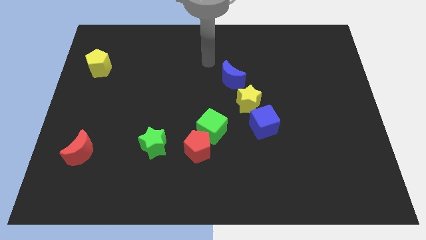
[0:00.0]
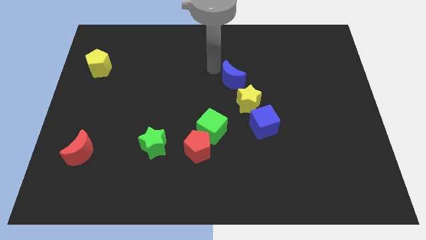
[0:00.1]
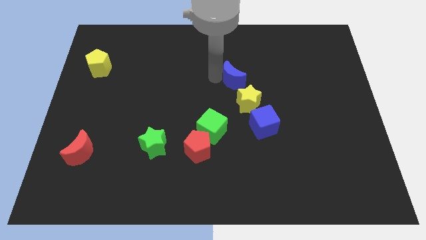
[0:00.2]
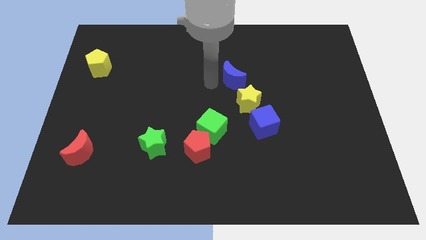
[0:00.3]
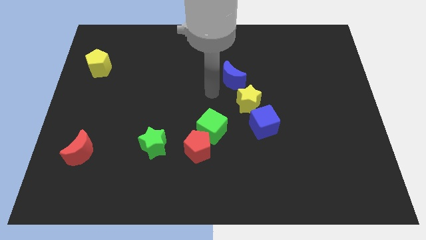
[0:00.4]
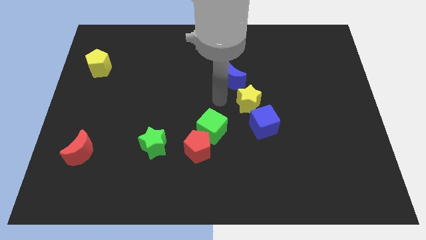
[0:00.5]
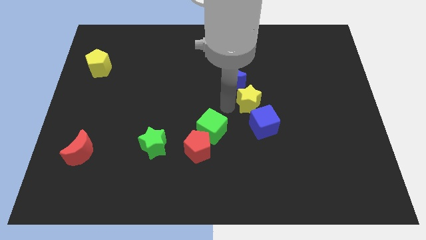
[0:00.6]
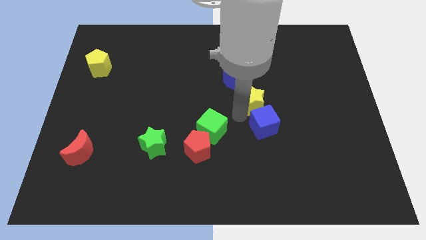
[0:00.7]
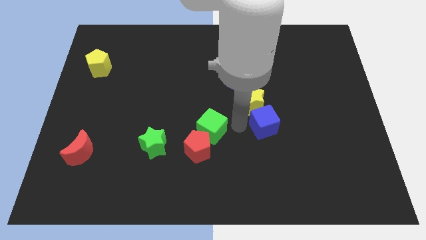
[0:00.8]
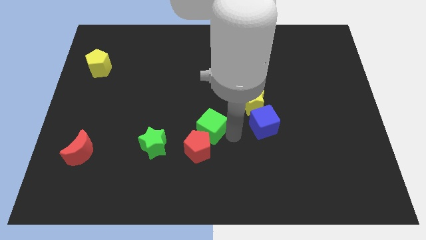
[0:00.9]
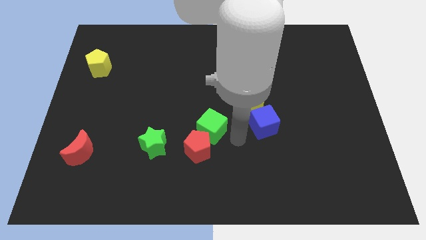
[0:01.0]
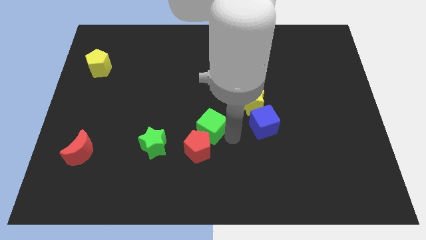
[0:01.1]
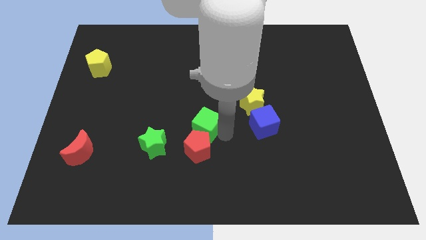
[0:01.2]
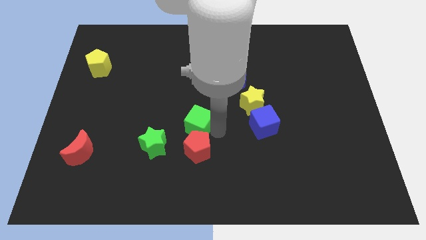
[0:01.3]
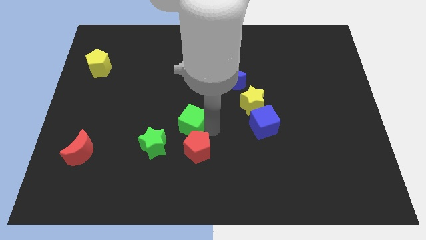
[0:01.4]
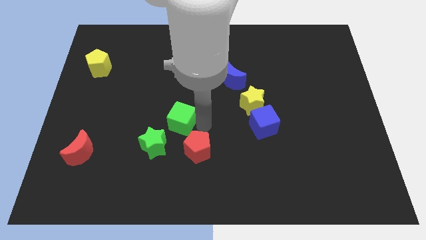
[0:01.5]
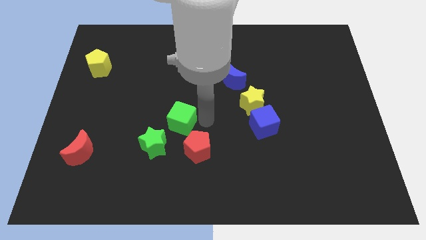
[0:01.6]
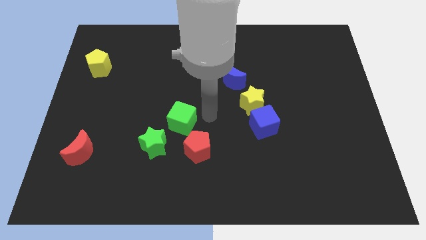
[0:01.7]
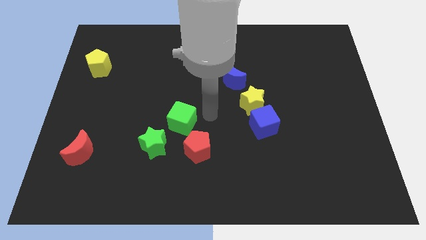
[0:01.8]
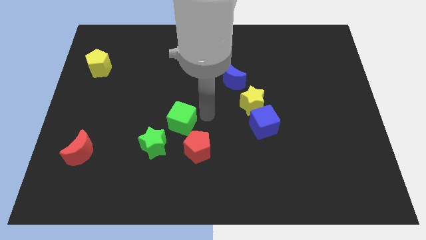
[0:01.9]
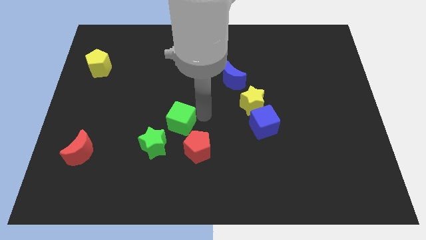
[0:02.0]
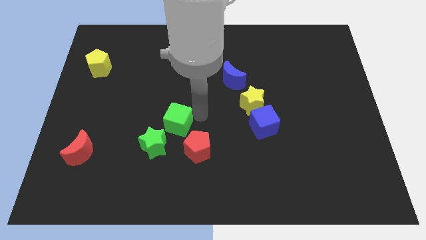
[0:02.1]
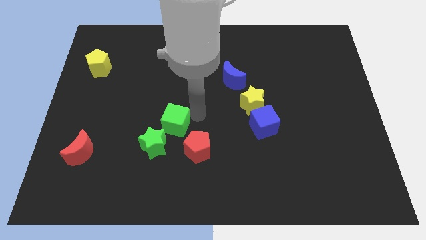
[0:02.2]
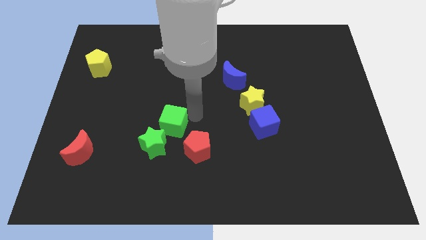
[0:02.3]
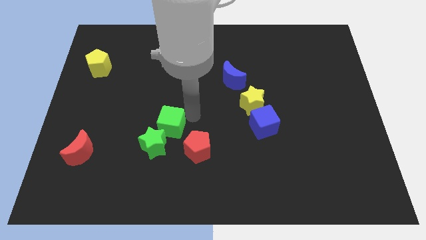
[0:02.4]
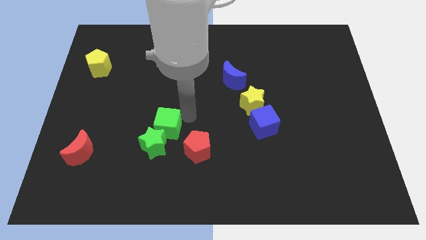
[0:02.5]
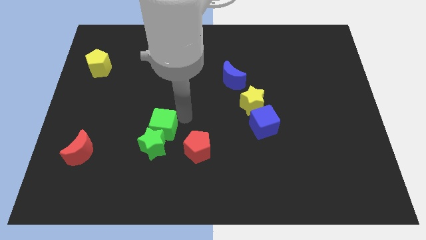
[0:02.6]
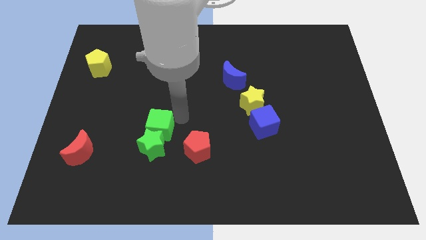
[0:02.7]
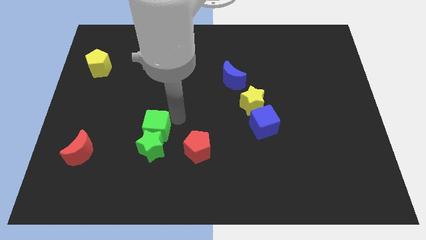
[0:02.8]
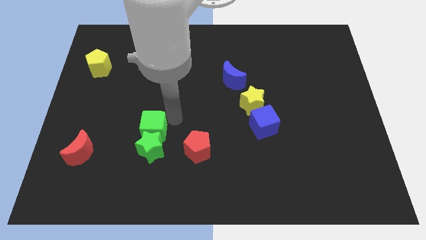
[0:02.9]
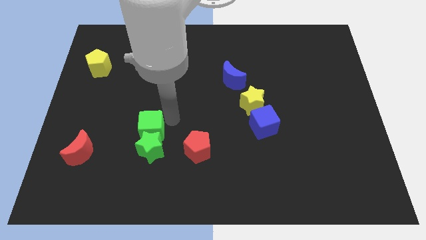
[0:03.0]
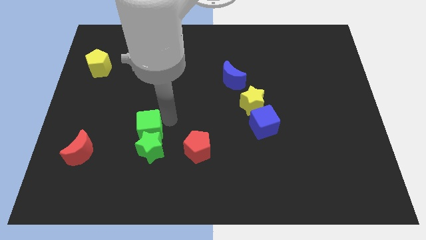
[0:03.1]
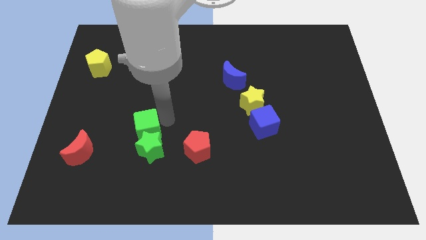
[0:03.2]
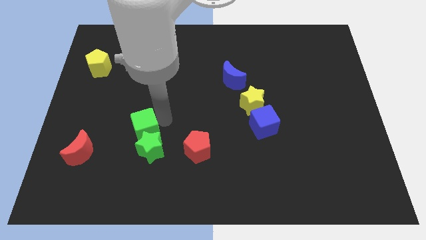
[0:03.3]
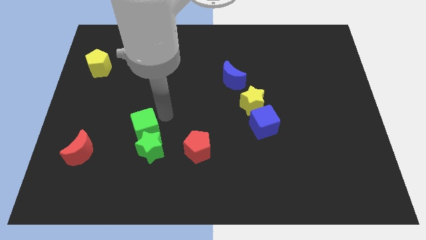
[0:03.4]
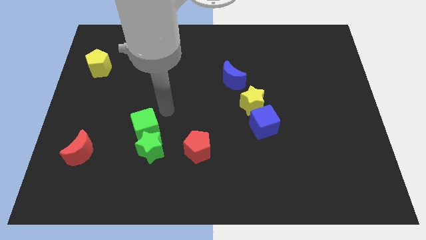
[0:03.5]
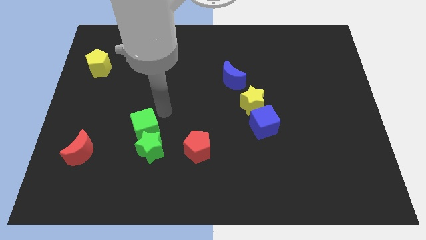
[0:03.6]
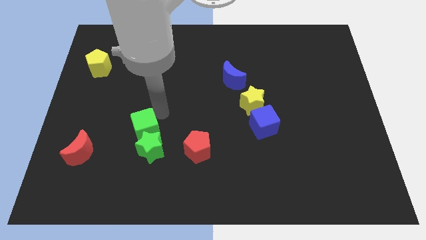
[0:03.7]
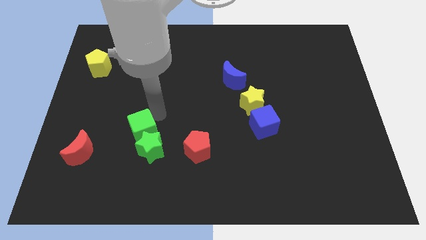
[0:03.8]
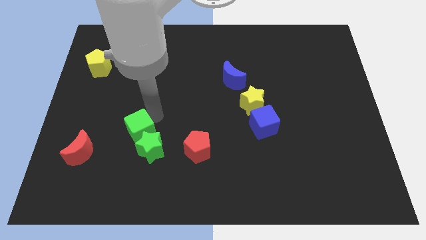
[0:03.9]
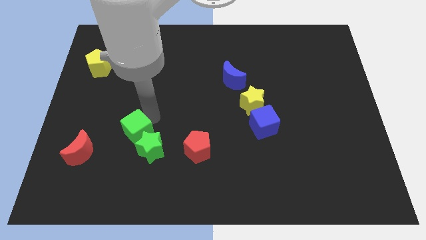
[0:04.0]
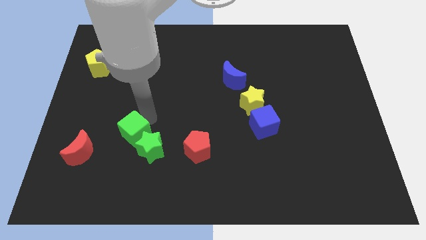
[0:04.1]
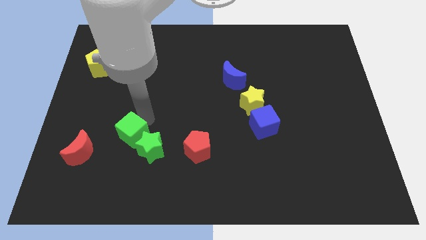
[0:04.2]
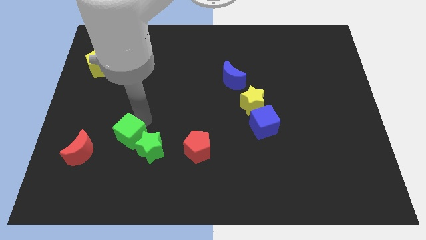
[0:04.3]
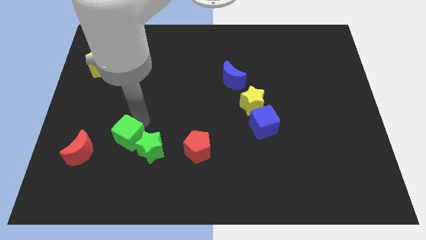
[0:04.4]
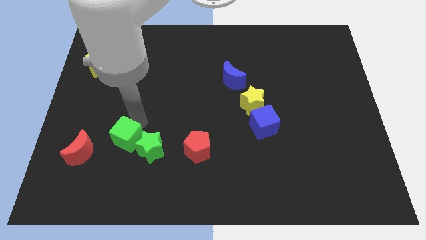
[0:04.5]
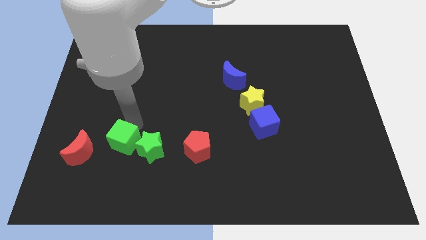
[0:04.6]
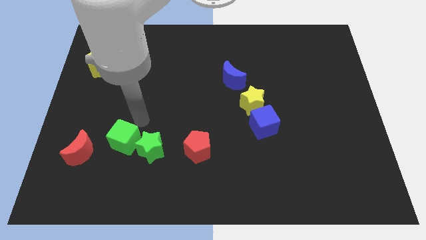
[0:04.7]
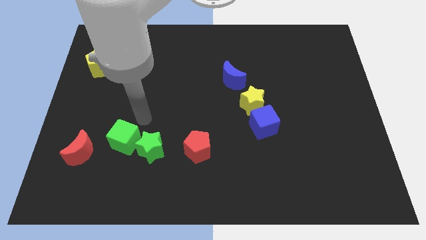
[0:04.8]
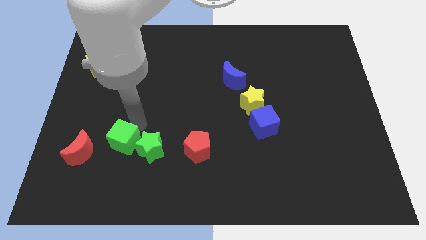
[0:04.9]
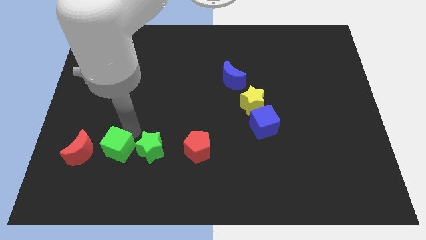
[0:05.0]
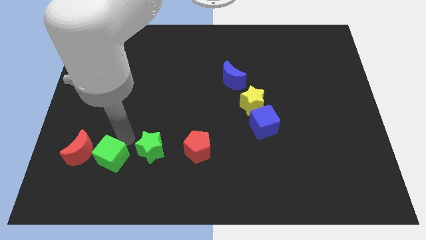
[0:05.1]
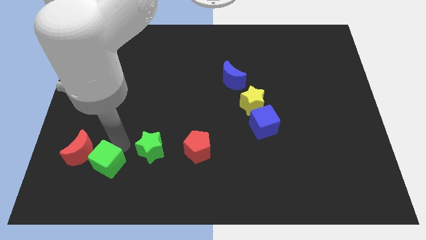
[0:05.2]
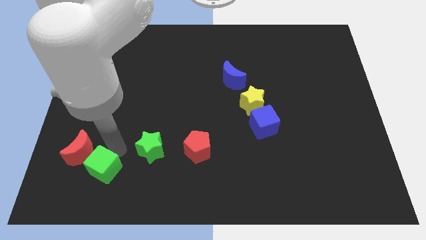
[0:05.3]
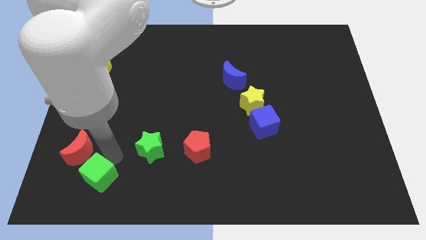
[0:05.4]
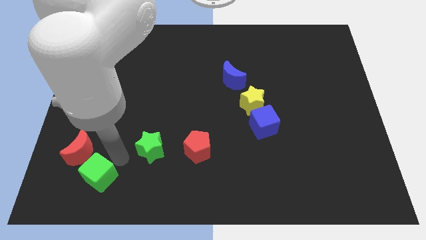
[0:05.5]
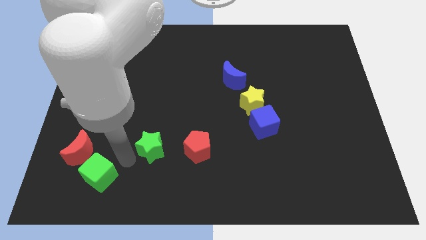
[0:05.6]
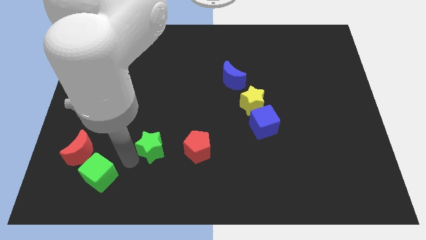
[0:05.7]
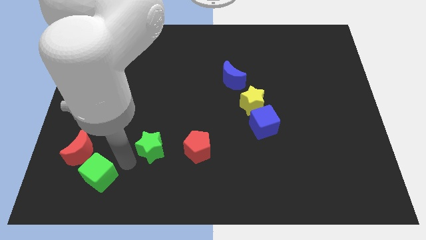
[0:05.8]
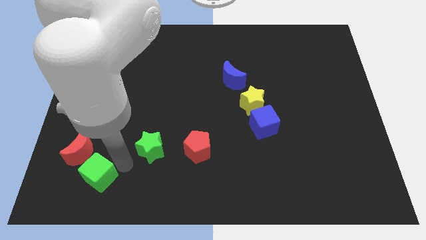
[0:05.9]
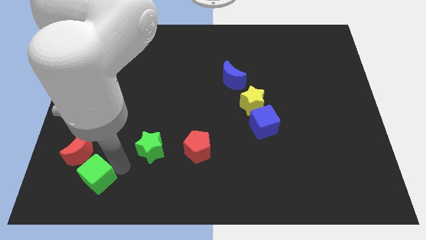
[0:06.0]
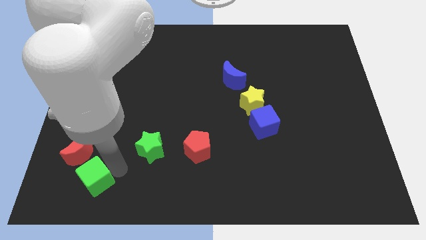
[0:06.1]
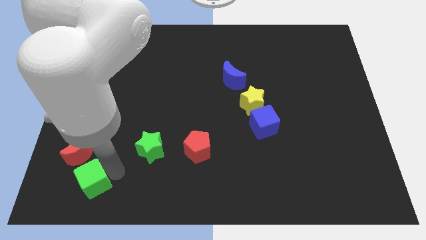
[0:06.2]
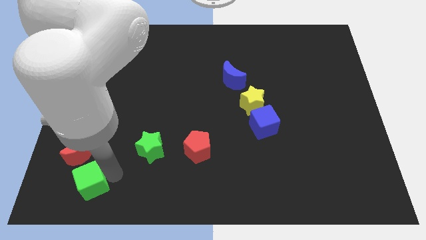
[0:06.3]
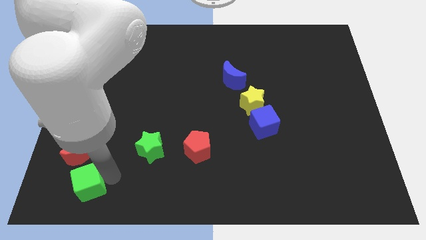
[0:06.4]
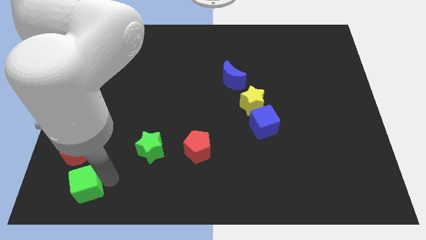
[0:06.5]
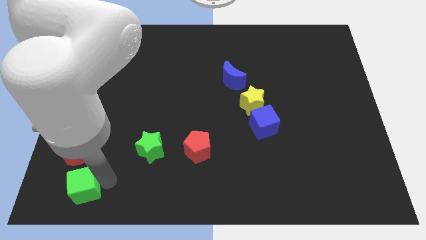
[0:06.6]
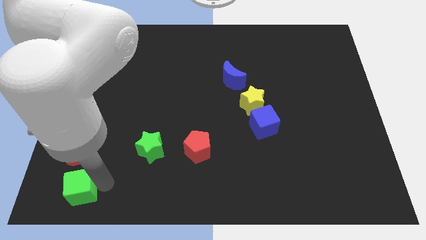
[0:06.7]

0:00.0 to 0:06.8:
push the green cube to the bottom left corner
